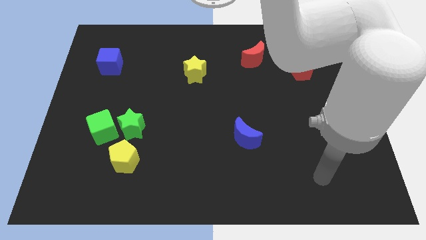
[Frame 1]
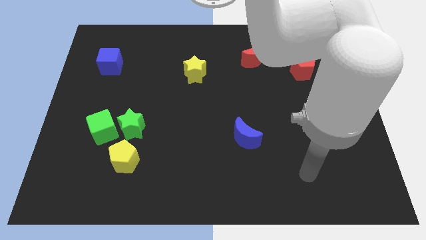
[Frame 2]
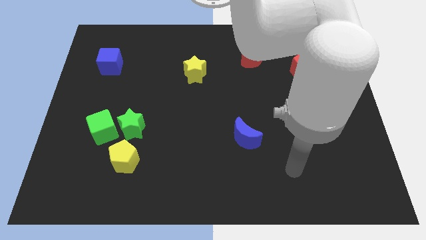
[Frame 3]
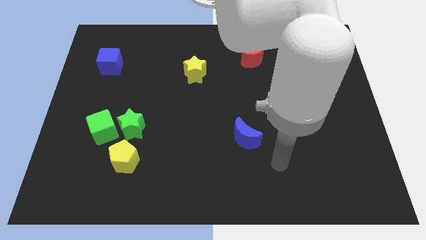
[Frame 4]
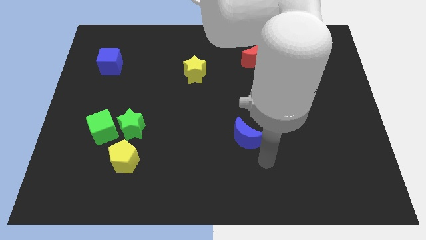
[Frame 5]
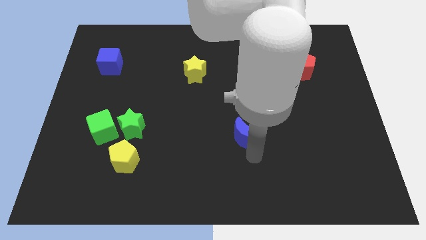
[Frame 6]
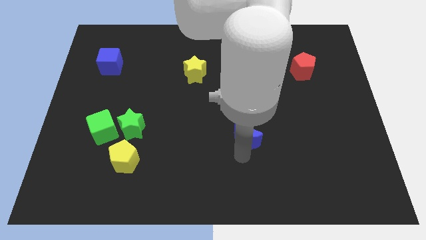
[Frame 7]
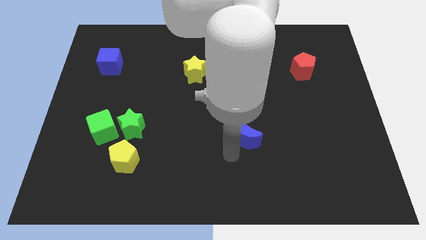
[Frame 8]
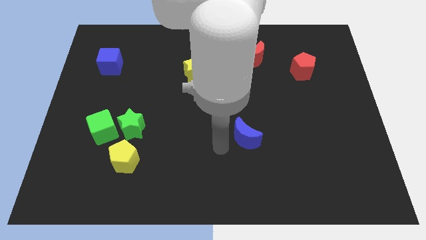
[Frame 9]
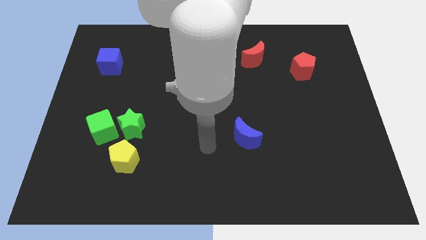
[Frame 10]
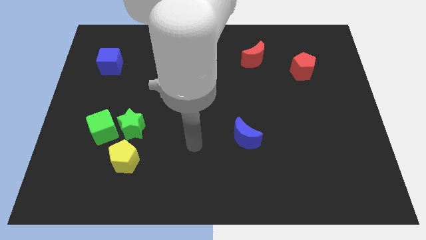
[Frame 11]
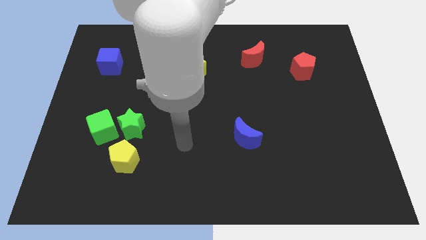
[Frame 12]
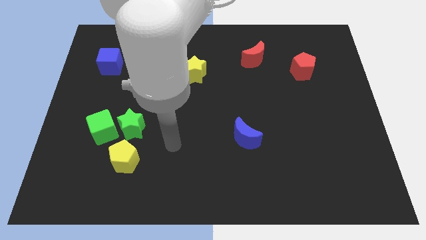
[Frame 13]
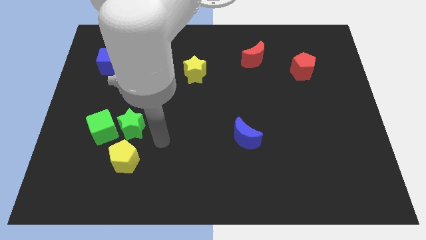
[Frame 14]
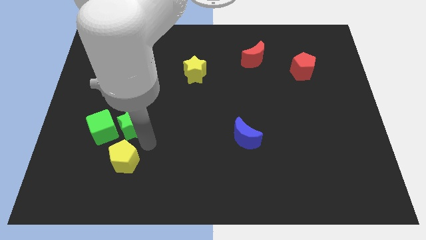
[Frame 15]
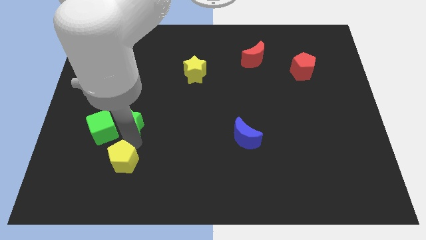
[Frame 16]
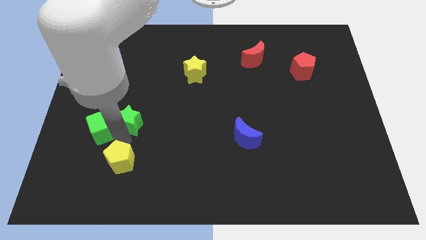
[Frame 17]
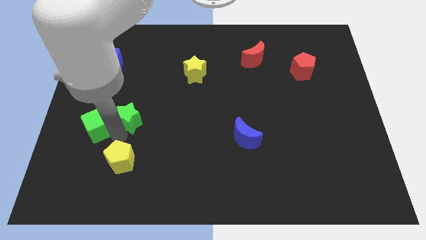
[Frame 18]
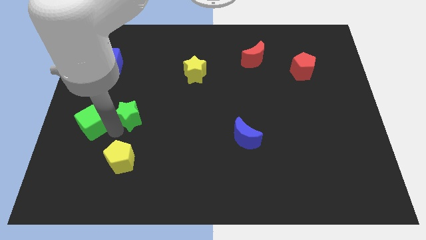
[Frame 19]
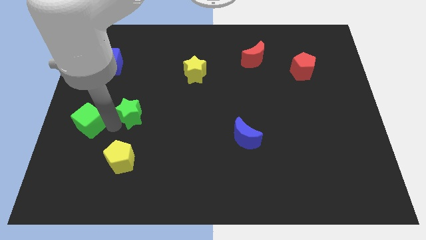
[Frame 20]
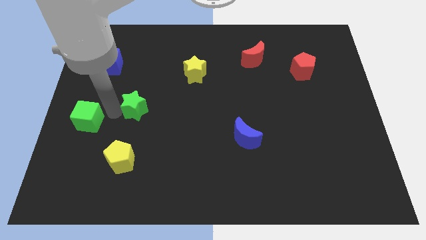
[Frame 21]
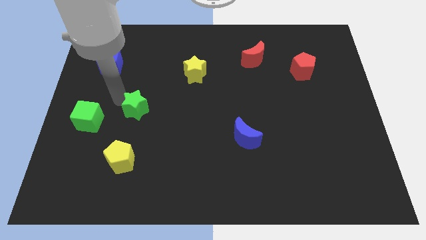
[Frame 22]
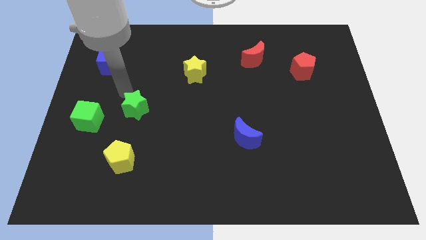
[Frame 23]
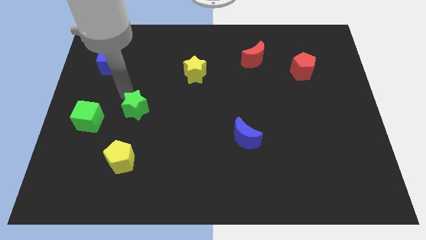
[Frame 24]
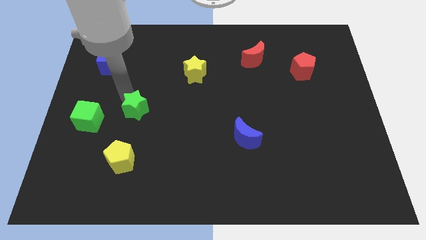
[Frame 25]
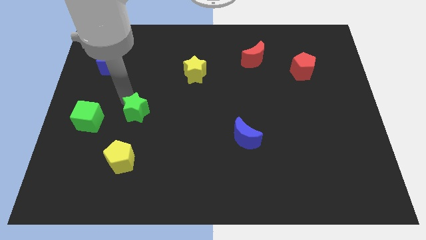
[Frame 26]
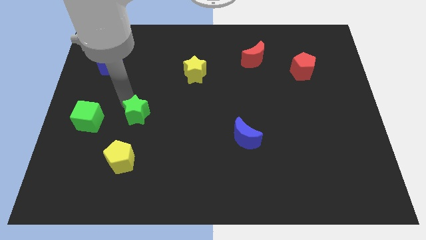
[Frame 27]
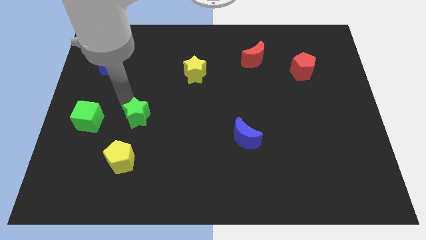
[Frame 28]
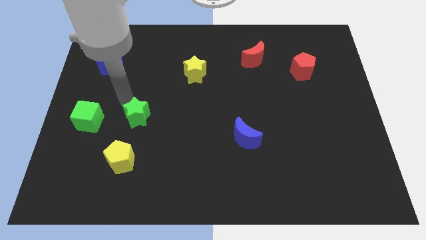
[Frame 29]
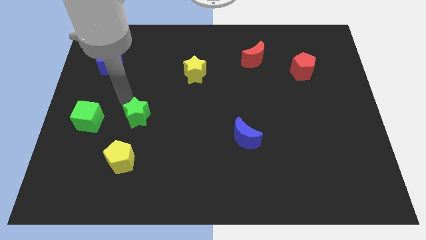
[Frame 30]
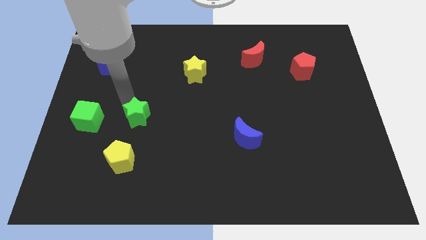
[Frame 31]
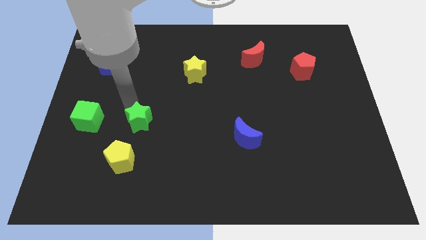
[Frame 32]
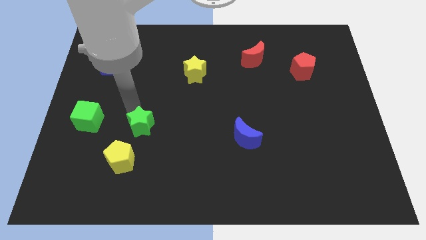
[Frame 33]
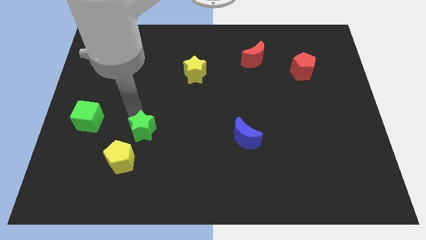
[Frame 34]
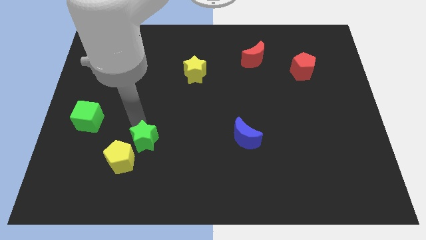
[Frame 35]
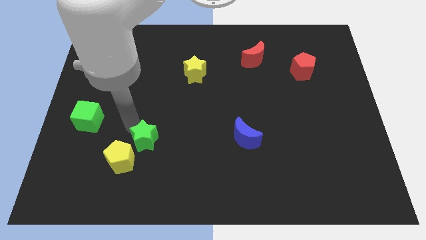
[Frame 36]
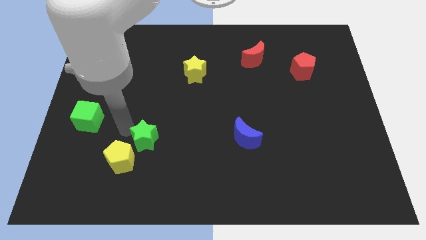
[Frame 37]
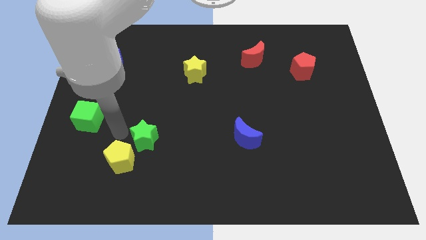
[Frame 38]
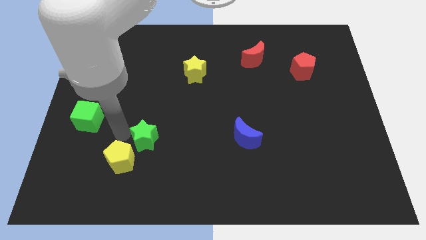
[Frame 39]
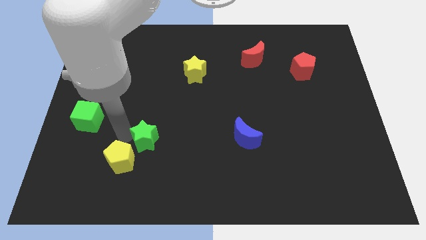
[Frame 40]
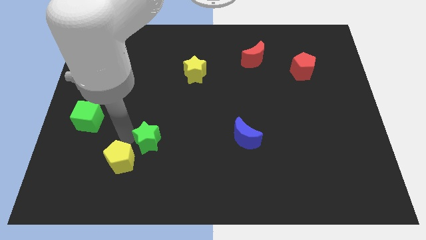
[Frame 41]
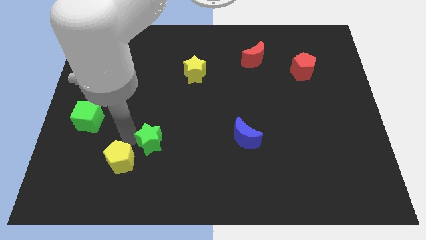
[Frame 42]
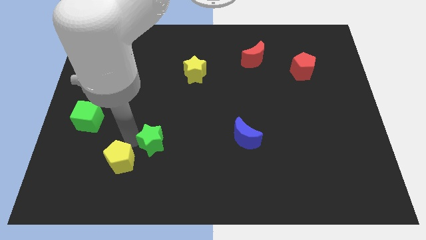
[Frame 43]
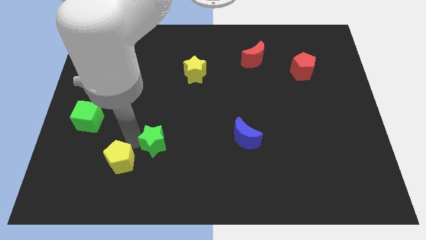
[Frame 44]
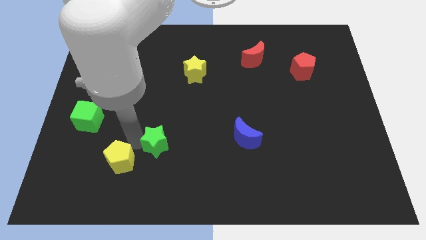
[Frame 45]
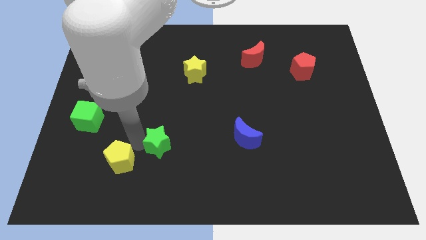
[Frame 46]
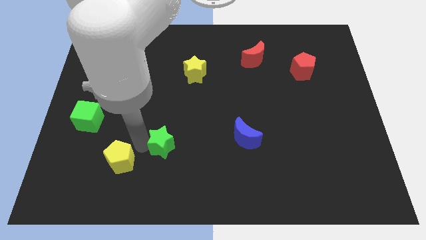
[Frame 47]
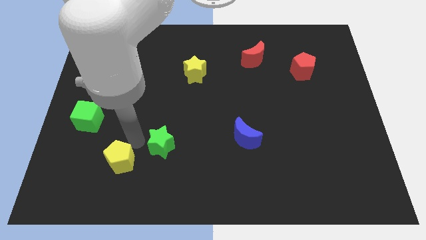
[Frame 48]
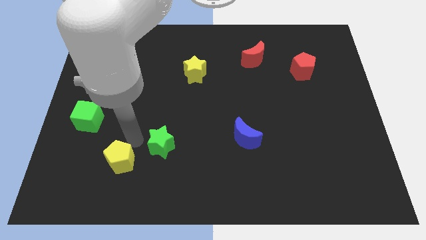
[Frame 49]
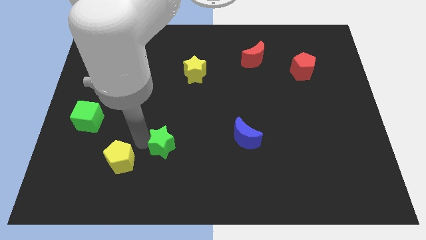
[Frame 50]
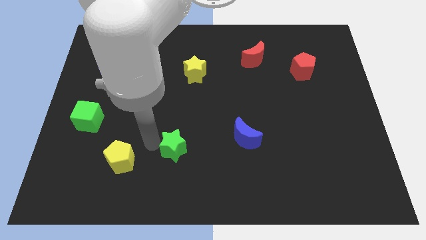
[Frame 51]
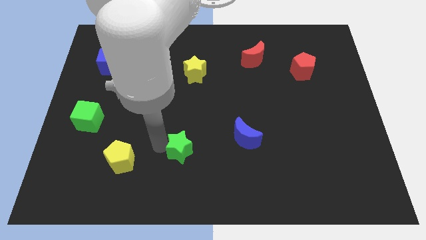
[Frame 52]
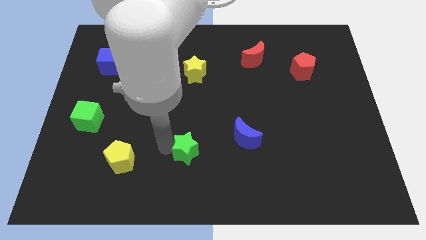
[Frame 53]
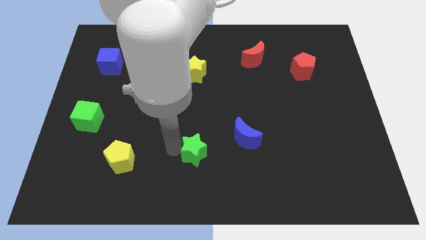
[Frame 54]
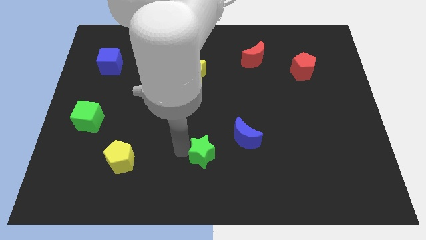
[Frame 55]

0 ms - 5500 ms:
slide the green star to the bottom left of the blue moon
